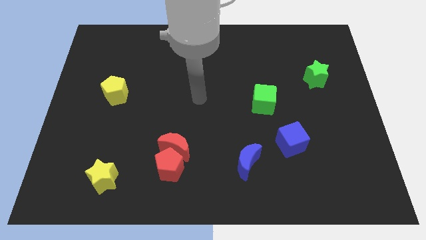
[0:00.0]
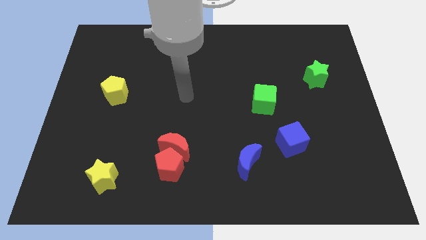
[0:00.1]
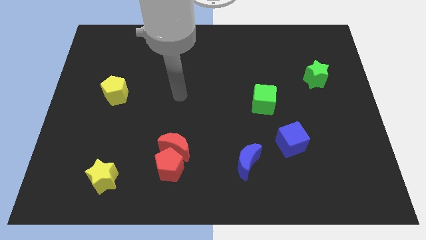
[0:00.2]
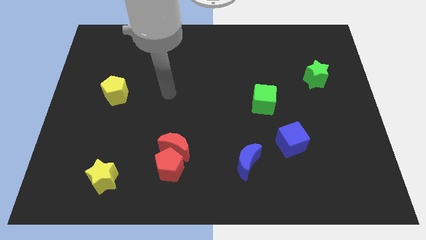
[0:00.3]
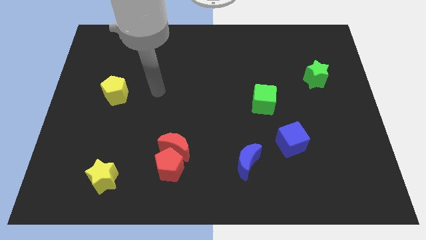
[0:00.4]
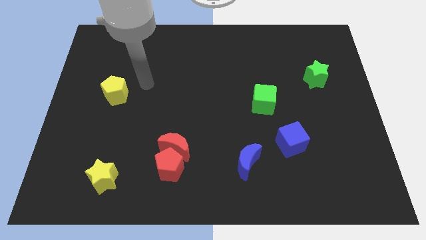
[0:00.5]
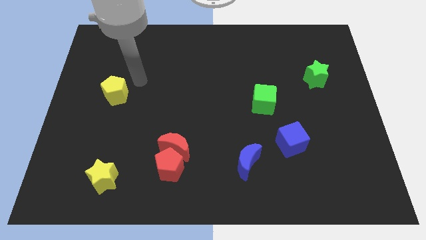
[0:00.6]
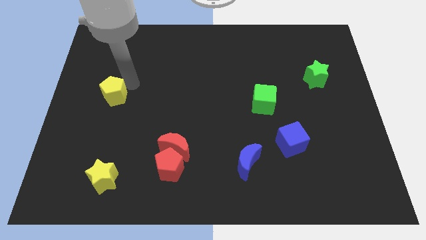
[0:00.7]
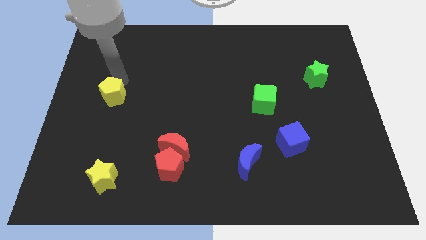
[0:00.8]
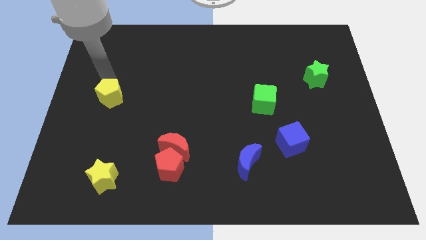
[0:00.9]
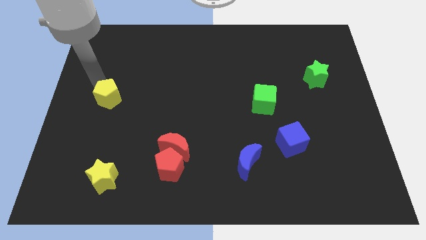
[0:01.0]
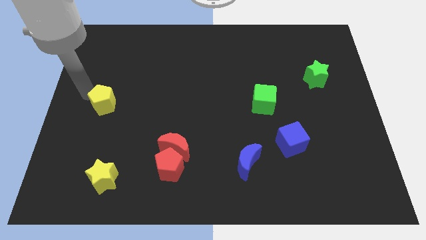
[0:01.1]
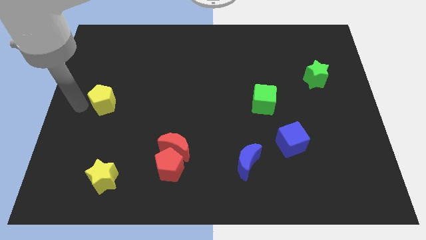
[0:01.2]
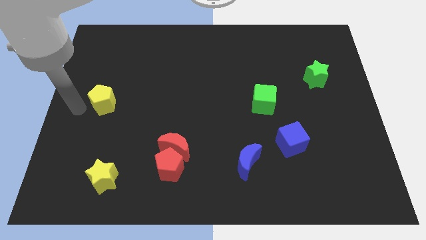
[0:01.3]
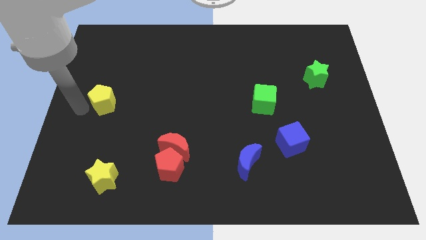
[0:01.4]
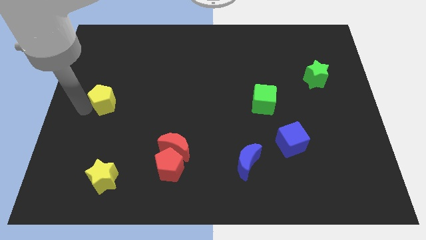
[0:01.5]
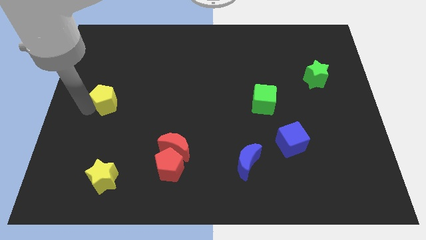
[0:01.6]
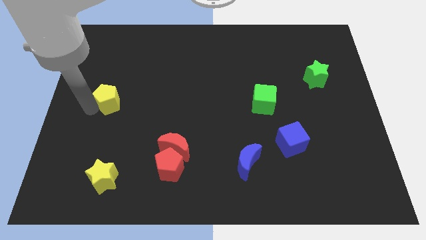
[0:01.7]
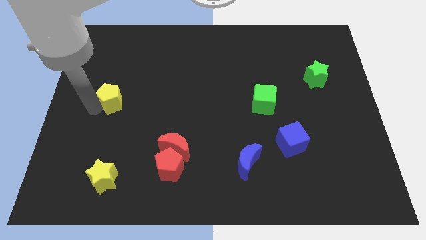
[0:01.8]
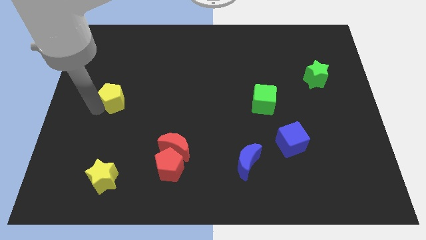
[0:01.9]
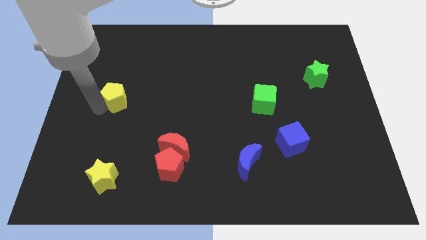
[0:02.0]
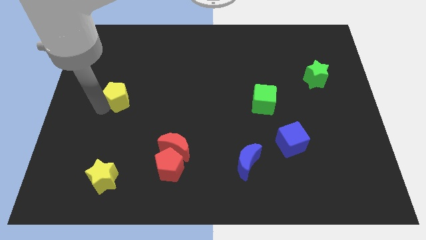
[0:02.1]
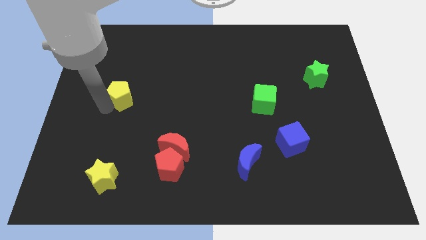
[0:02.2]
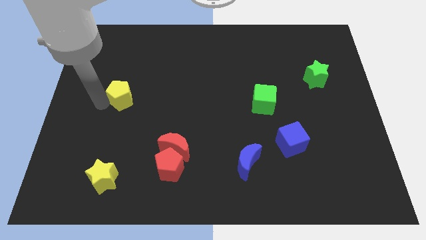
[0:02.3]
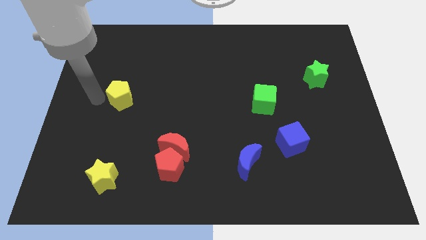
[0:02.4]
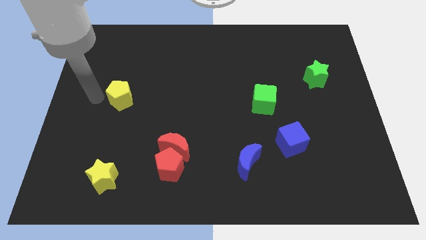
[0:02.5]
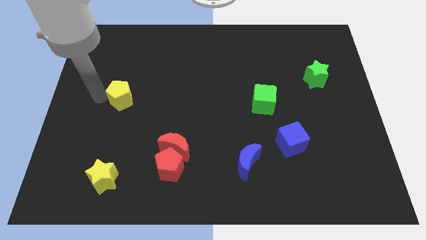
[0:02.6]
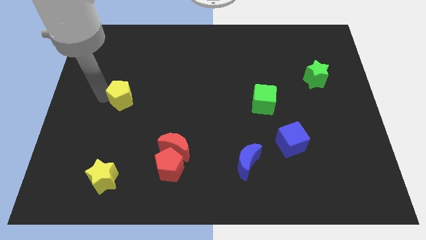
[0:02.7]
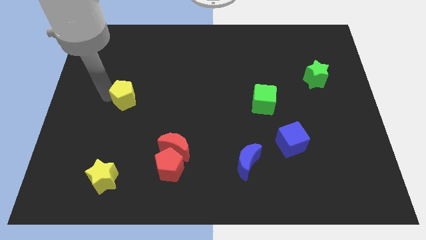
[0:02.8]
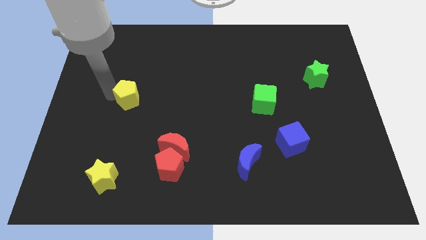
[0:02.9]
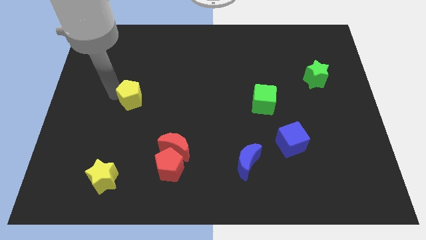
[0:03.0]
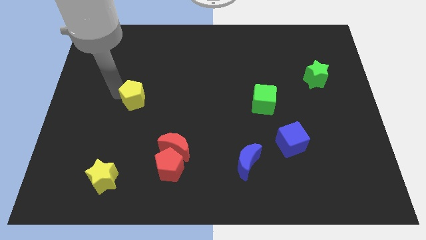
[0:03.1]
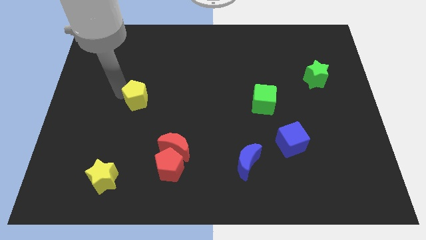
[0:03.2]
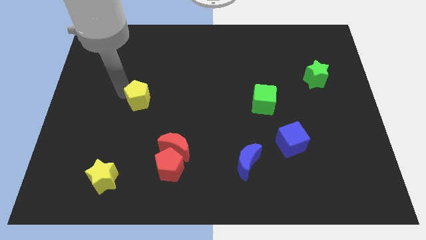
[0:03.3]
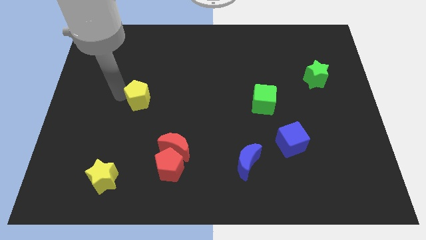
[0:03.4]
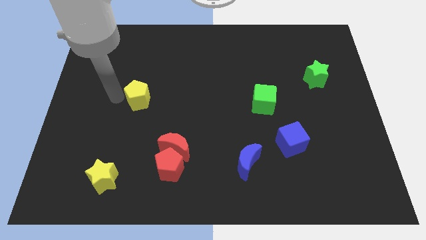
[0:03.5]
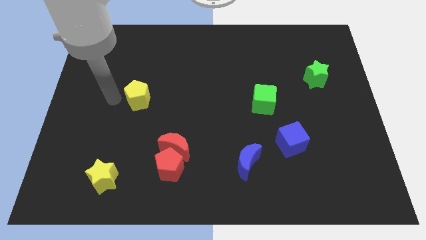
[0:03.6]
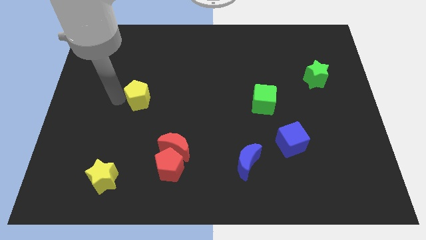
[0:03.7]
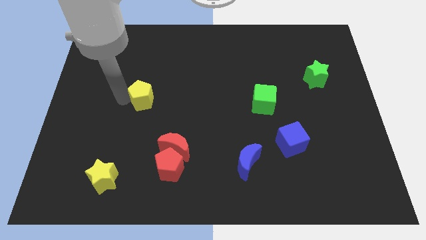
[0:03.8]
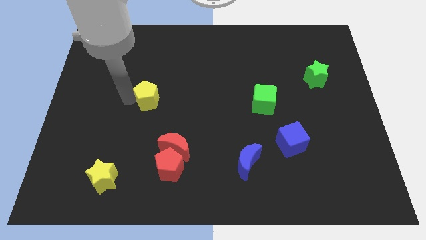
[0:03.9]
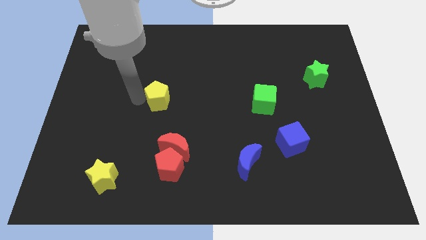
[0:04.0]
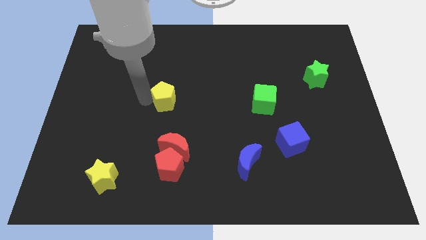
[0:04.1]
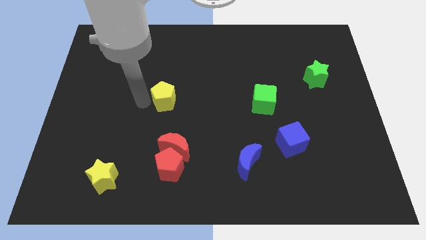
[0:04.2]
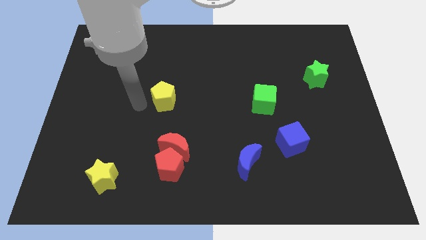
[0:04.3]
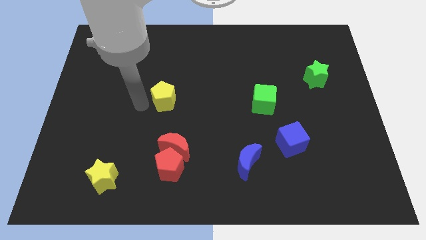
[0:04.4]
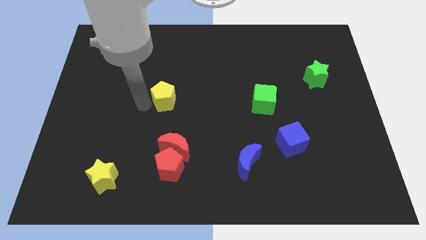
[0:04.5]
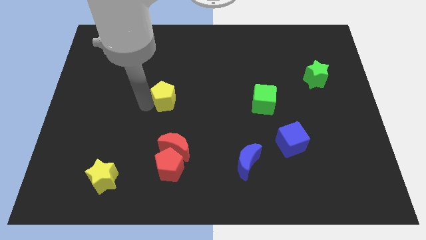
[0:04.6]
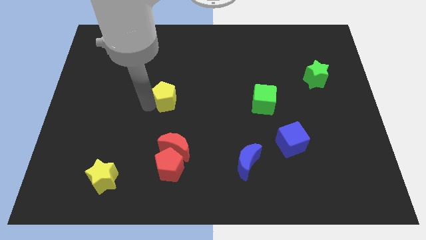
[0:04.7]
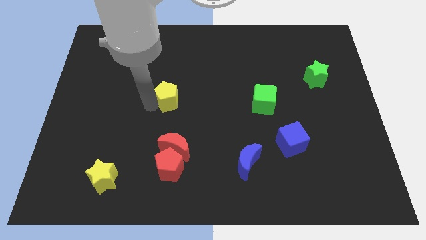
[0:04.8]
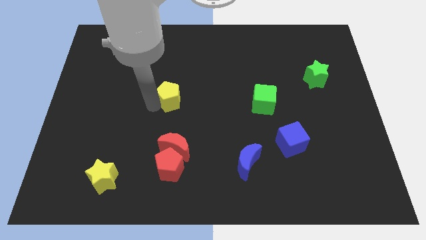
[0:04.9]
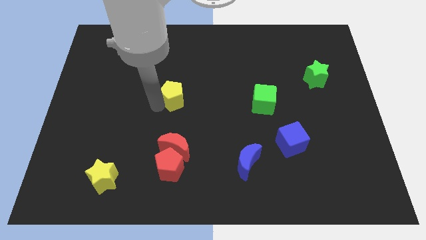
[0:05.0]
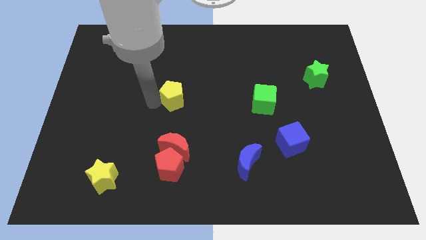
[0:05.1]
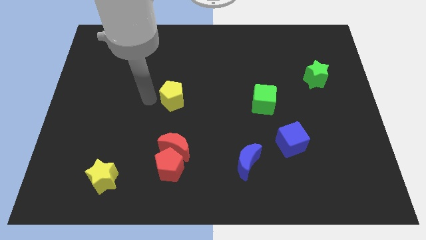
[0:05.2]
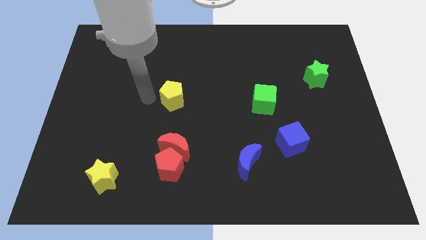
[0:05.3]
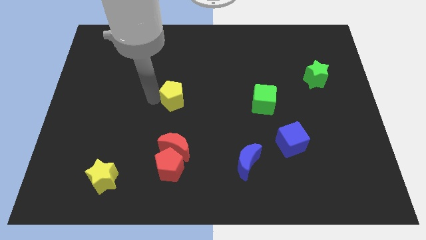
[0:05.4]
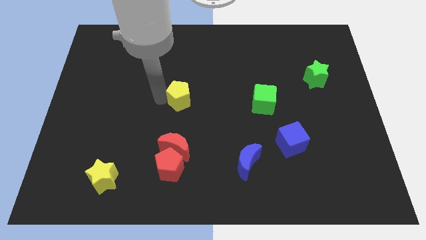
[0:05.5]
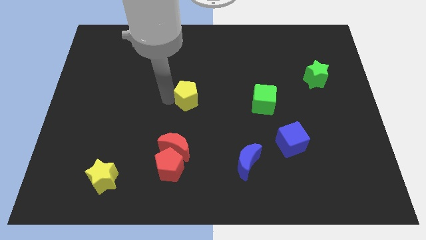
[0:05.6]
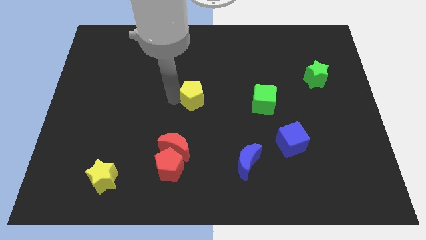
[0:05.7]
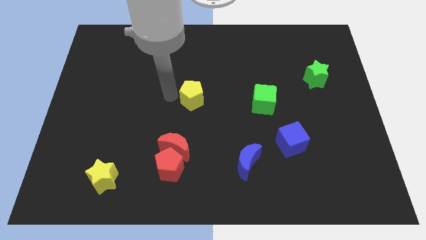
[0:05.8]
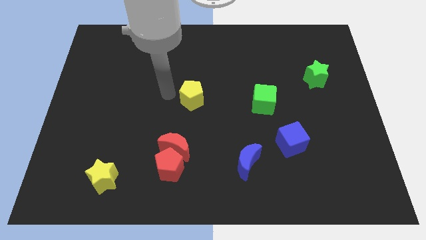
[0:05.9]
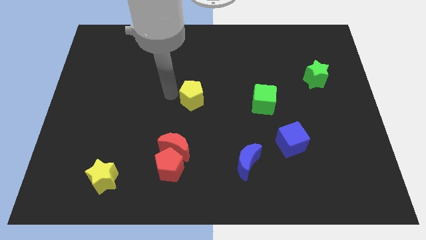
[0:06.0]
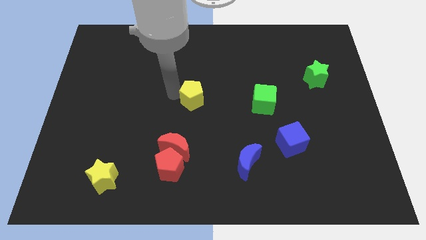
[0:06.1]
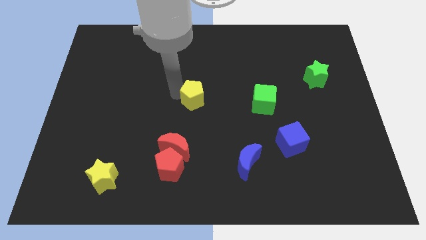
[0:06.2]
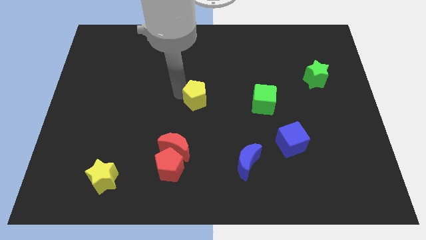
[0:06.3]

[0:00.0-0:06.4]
push the yellow pentagon left of the green cube
